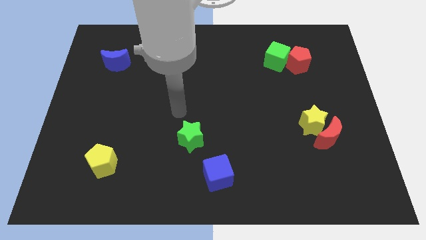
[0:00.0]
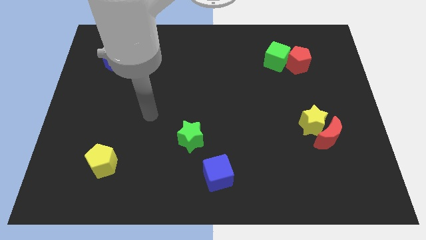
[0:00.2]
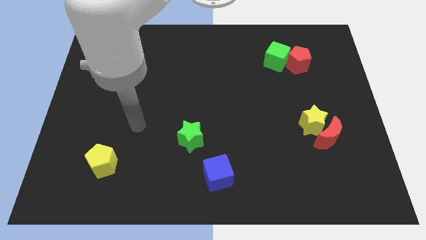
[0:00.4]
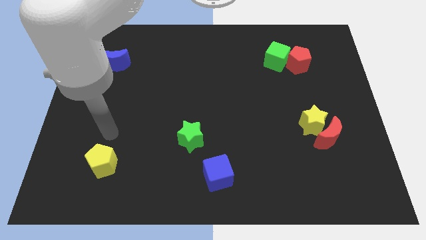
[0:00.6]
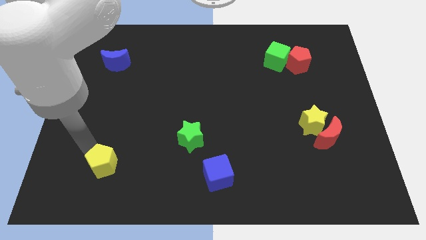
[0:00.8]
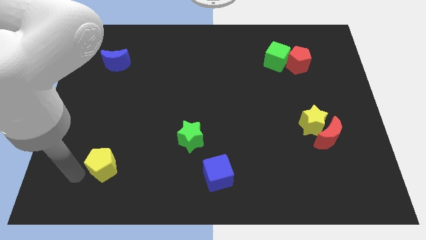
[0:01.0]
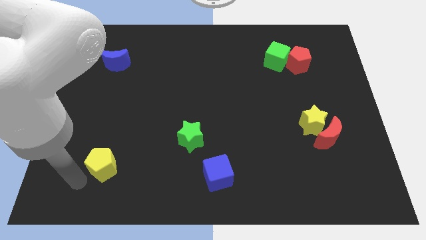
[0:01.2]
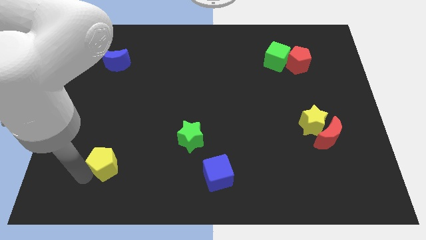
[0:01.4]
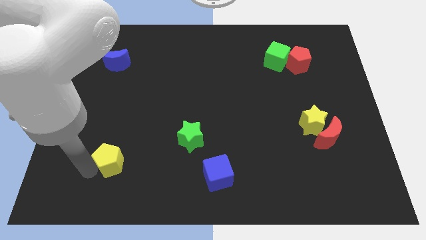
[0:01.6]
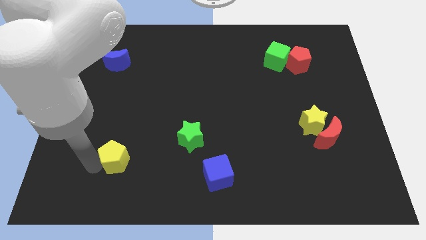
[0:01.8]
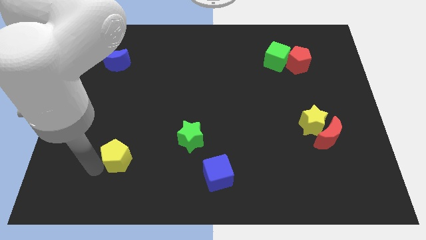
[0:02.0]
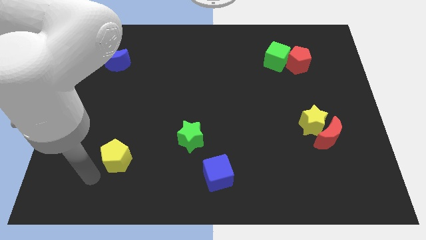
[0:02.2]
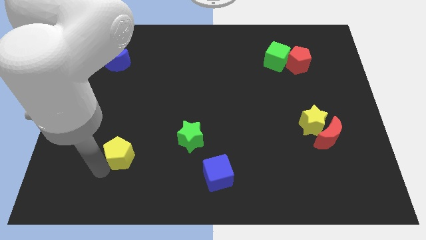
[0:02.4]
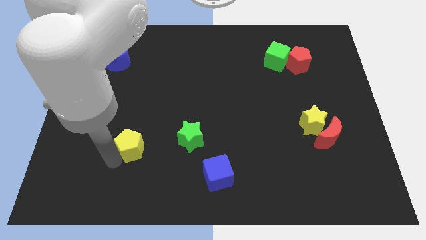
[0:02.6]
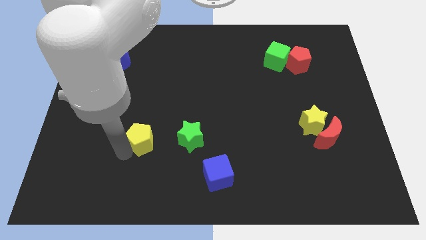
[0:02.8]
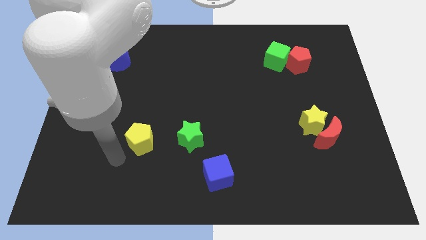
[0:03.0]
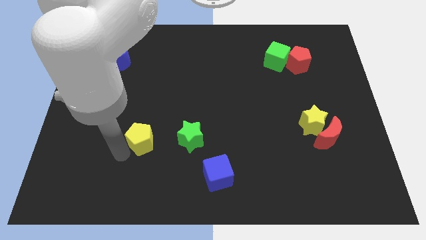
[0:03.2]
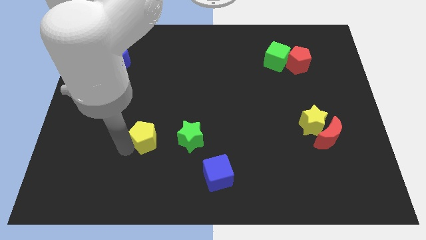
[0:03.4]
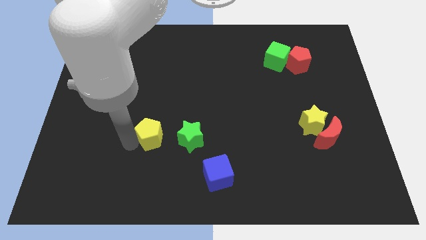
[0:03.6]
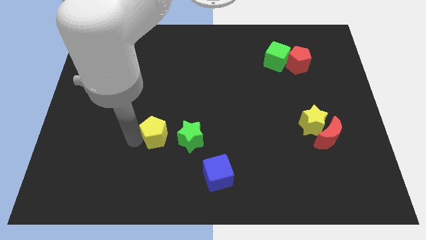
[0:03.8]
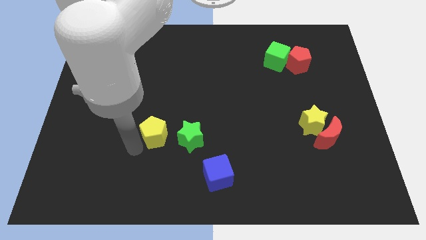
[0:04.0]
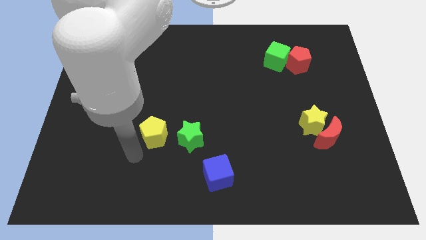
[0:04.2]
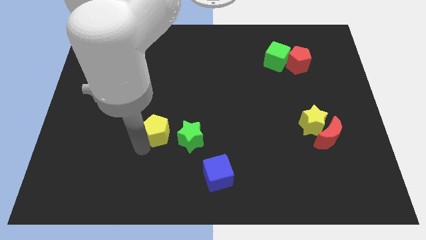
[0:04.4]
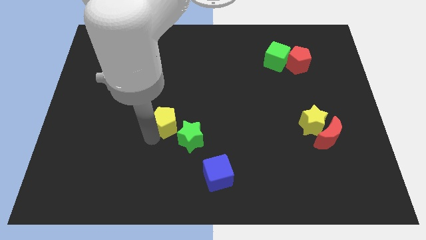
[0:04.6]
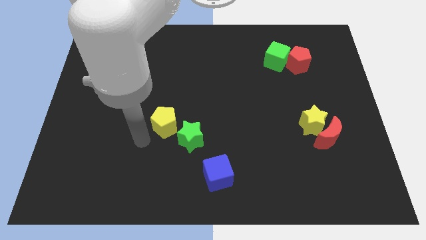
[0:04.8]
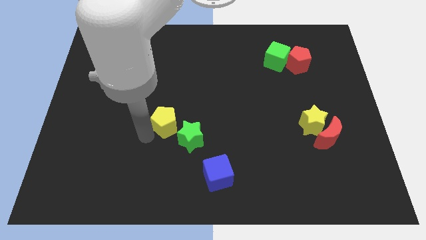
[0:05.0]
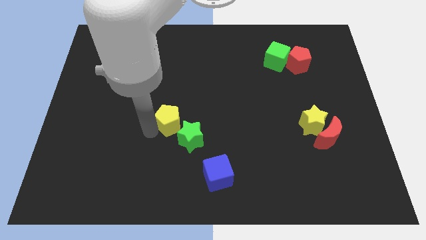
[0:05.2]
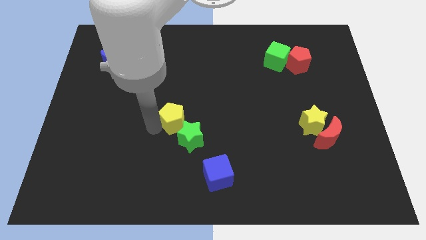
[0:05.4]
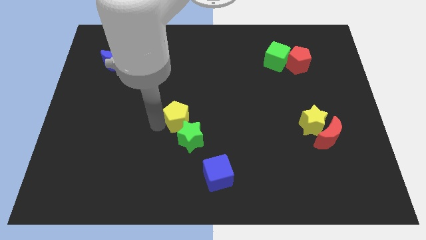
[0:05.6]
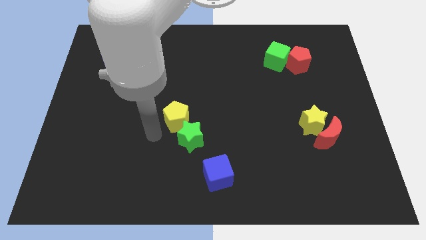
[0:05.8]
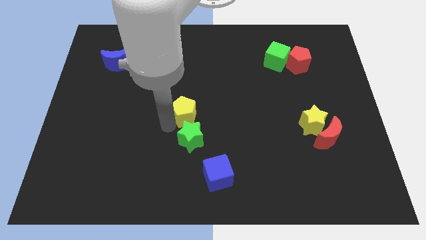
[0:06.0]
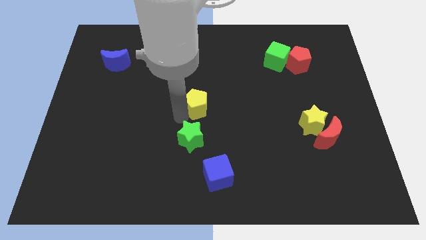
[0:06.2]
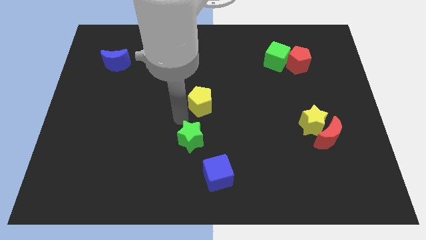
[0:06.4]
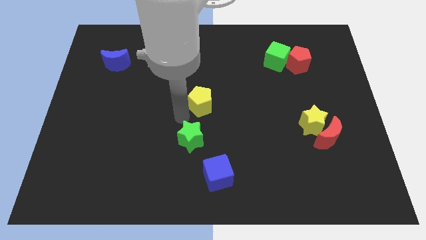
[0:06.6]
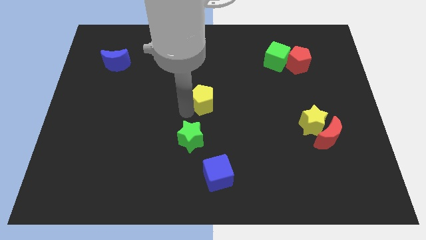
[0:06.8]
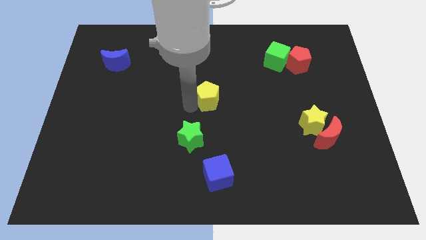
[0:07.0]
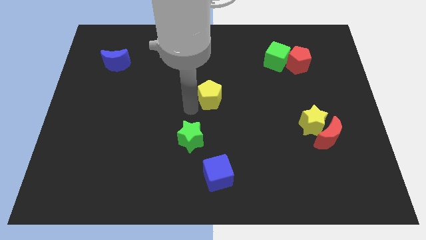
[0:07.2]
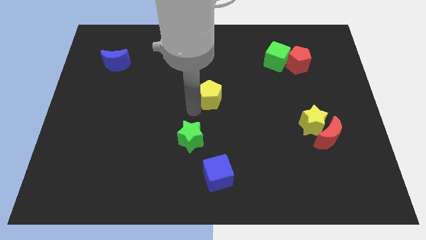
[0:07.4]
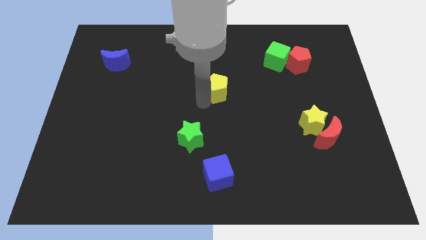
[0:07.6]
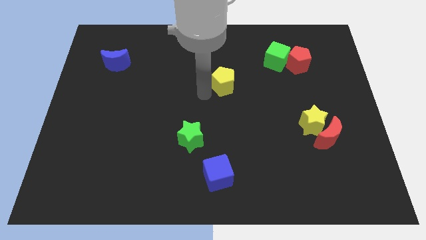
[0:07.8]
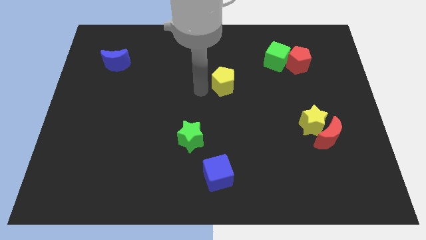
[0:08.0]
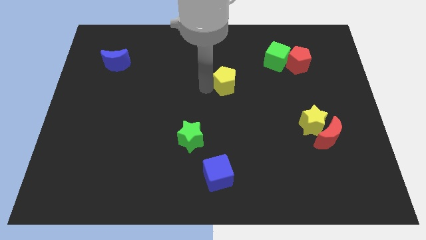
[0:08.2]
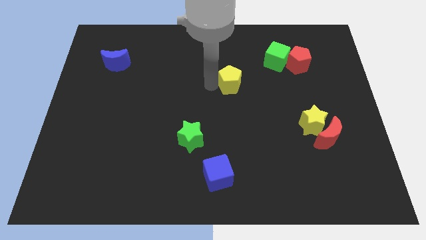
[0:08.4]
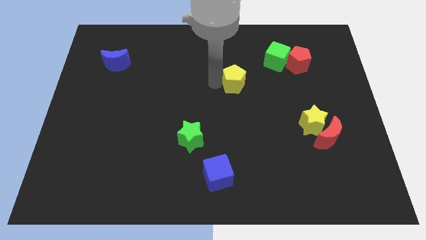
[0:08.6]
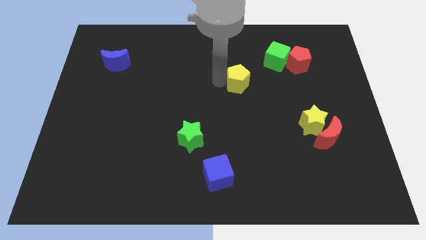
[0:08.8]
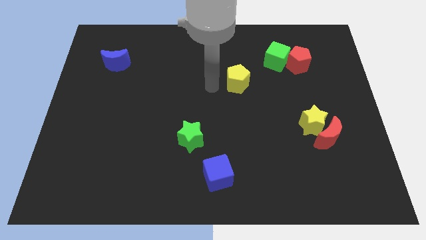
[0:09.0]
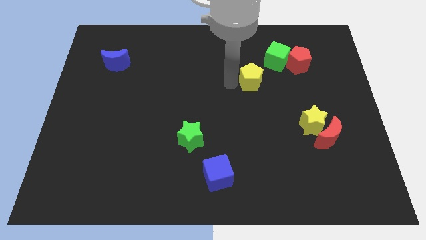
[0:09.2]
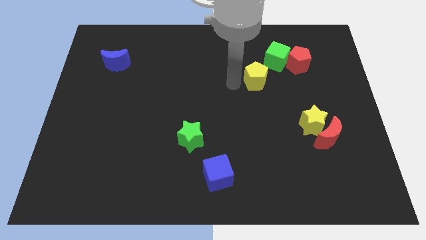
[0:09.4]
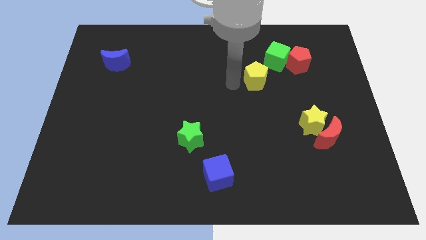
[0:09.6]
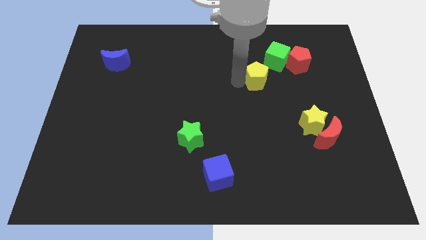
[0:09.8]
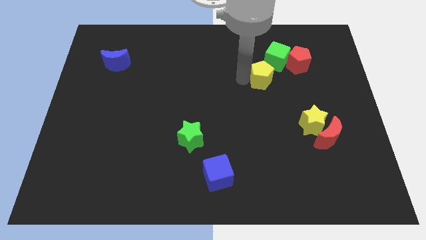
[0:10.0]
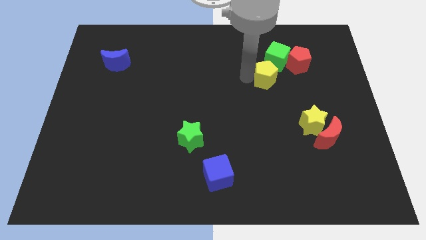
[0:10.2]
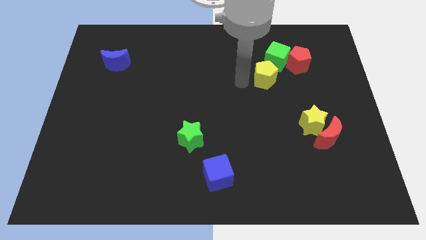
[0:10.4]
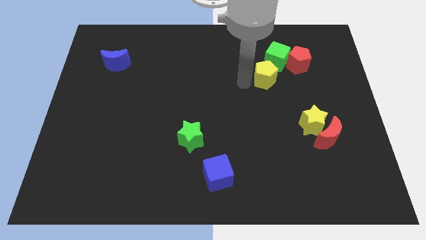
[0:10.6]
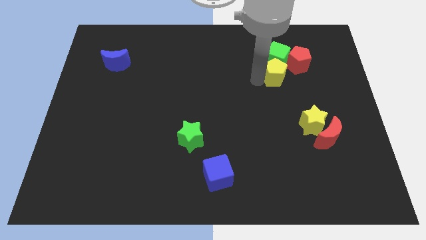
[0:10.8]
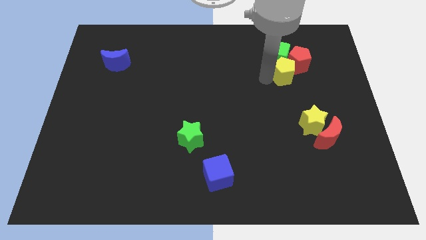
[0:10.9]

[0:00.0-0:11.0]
move the yellow pentagon to the red pentagon

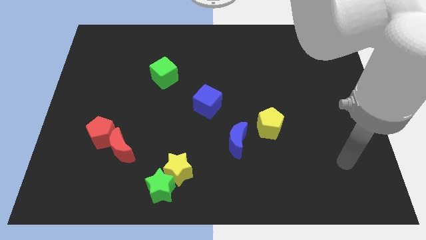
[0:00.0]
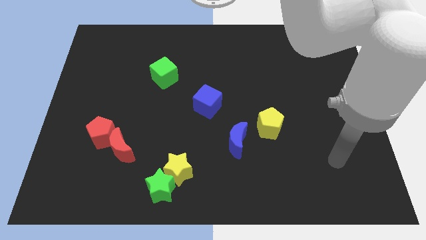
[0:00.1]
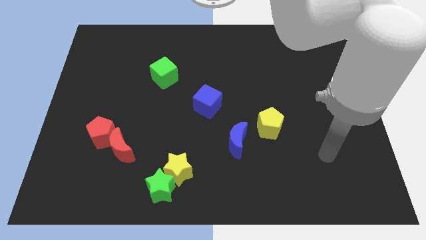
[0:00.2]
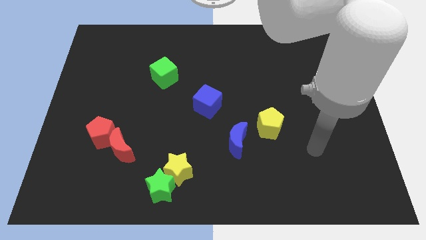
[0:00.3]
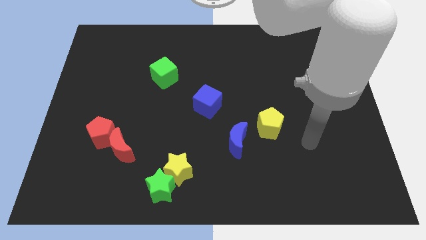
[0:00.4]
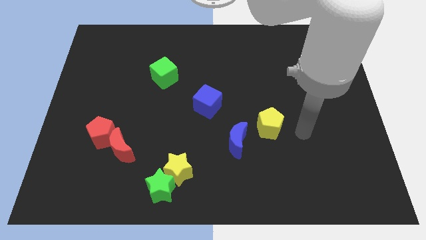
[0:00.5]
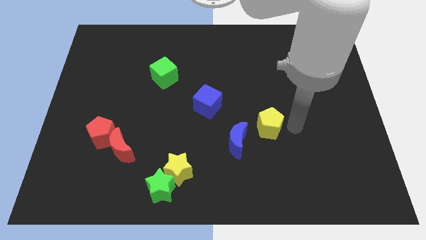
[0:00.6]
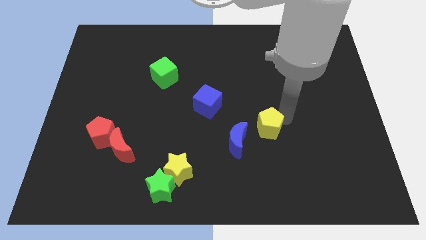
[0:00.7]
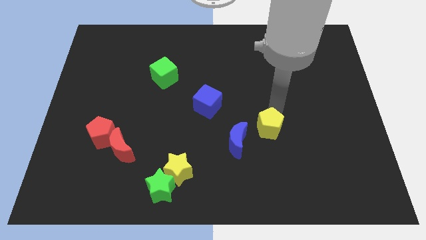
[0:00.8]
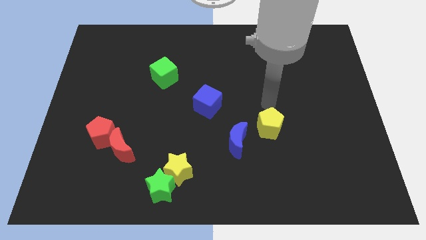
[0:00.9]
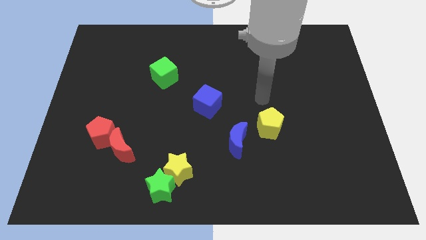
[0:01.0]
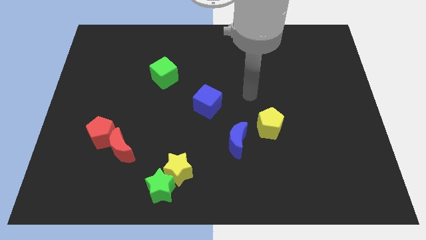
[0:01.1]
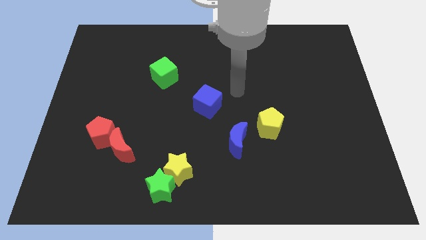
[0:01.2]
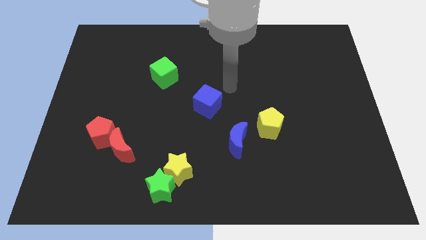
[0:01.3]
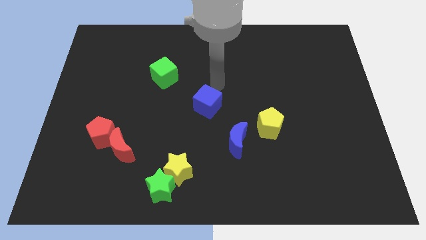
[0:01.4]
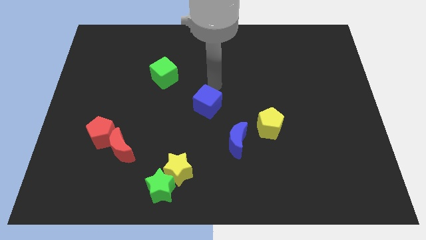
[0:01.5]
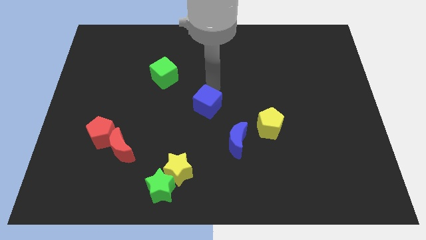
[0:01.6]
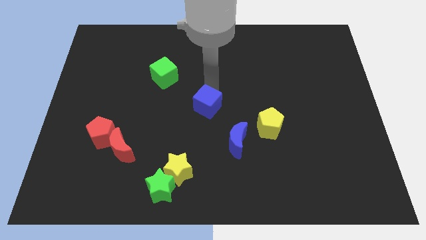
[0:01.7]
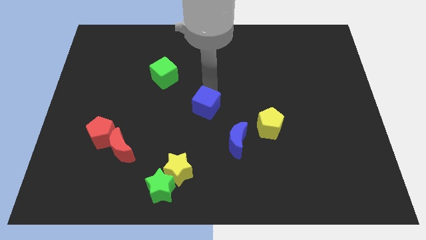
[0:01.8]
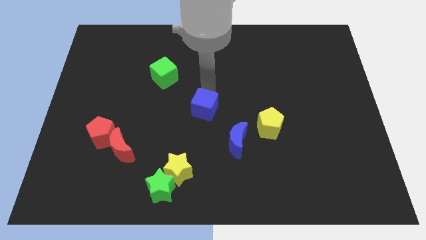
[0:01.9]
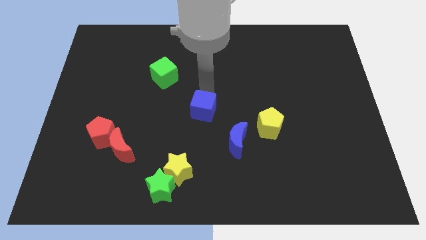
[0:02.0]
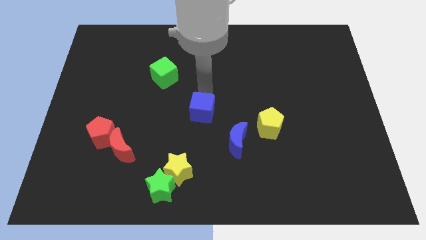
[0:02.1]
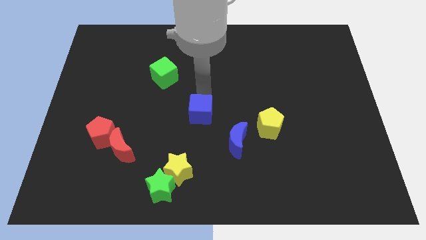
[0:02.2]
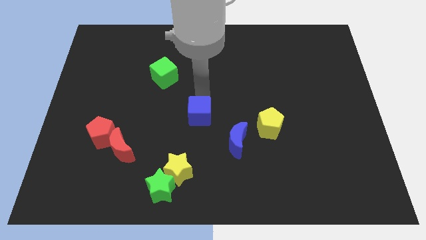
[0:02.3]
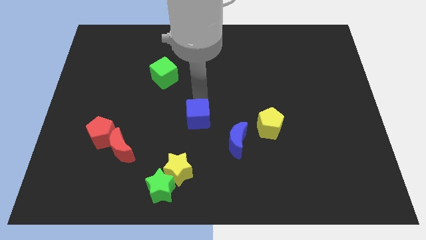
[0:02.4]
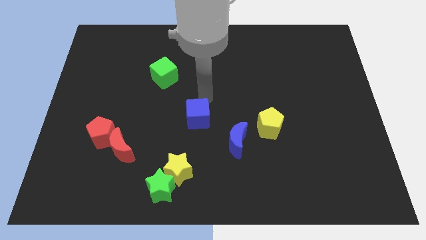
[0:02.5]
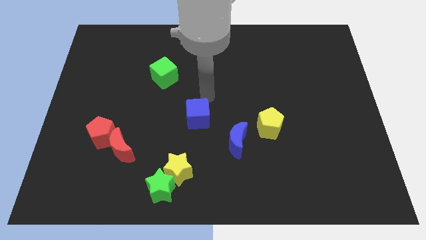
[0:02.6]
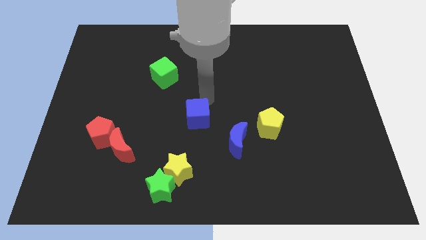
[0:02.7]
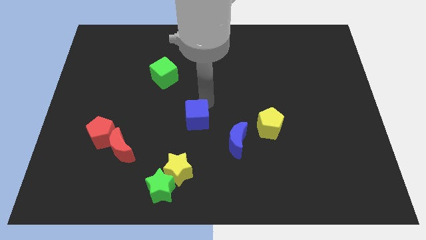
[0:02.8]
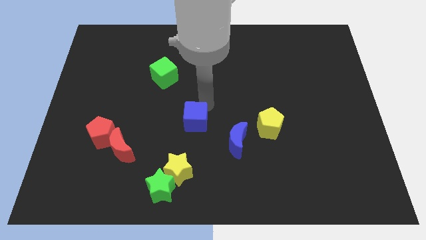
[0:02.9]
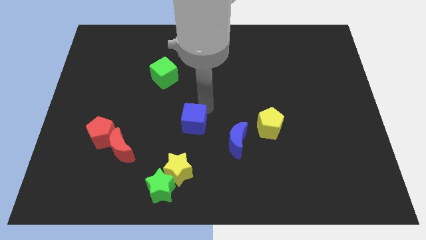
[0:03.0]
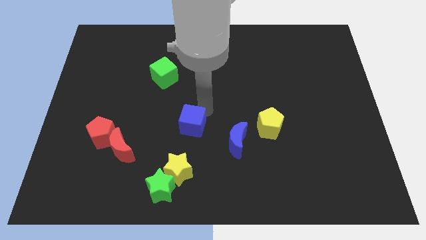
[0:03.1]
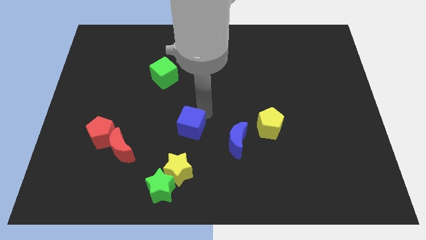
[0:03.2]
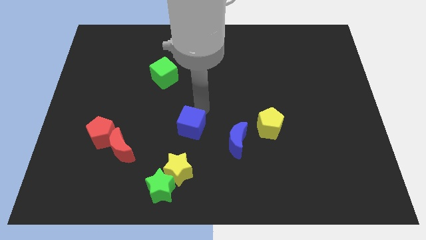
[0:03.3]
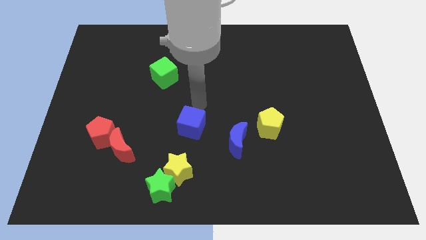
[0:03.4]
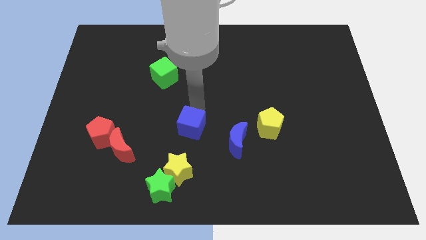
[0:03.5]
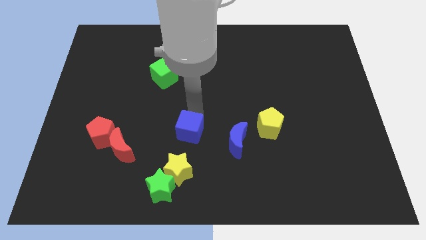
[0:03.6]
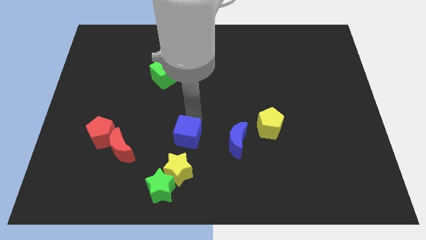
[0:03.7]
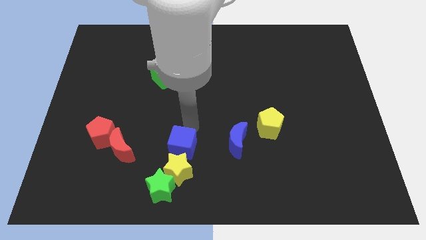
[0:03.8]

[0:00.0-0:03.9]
put the blue cube towards the yellow star
